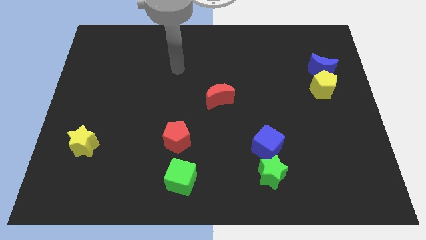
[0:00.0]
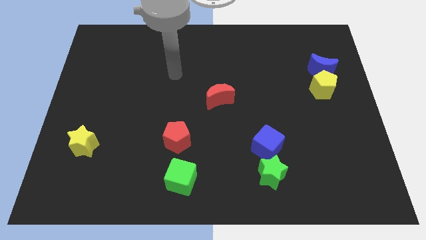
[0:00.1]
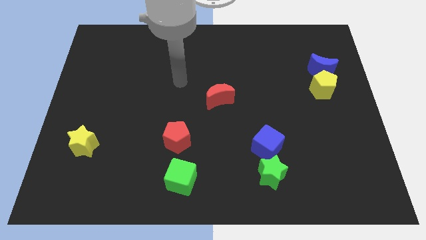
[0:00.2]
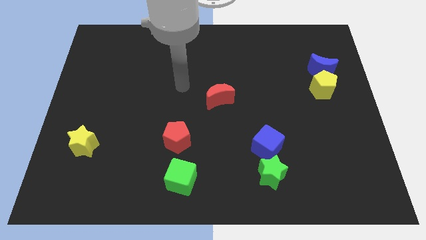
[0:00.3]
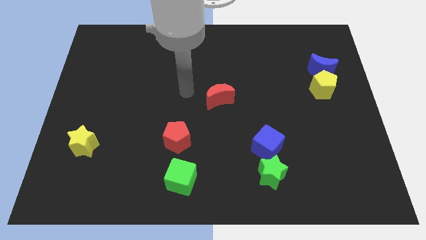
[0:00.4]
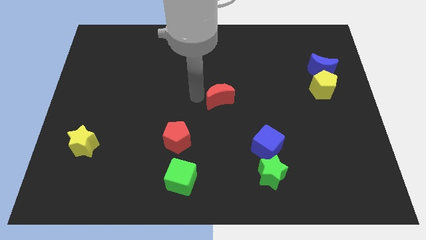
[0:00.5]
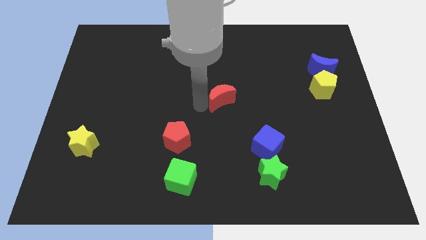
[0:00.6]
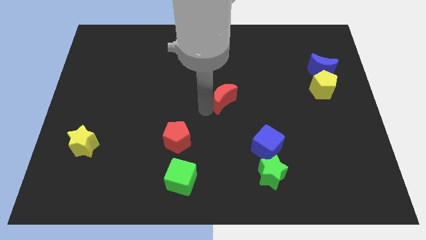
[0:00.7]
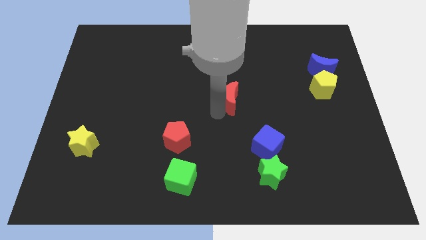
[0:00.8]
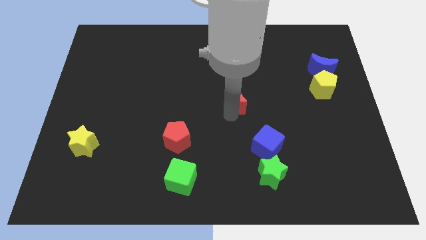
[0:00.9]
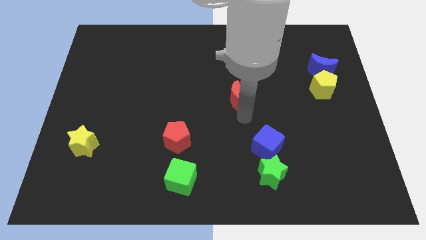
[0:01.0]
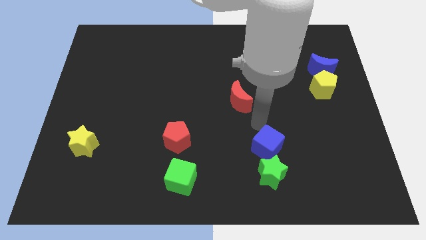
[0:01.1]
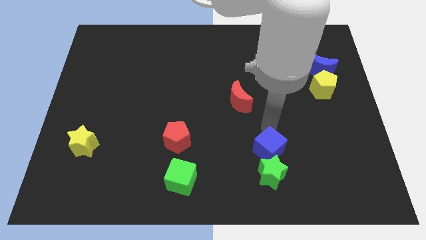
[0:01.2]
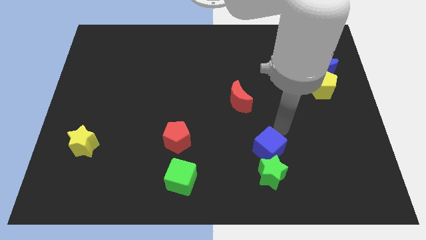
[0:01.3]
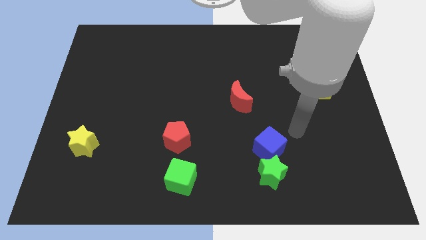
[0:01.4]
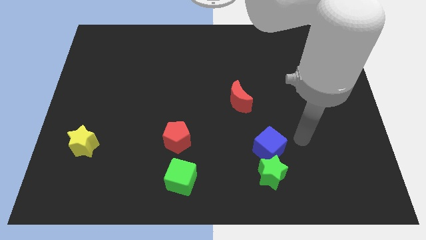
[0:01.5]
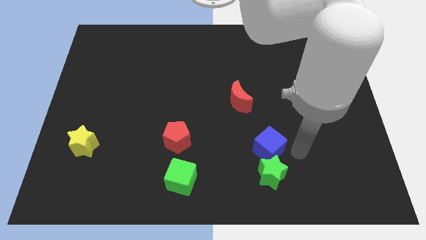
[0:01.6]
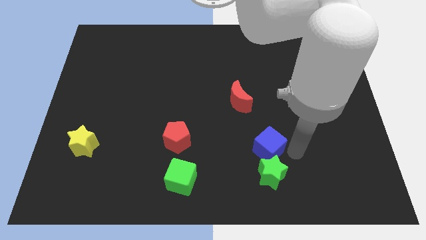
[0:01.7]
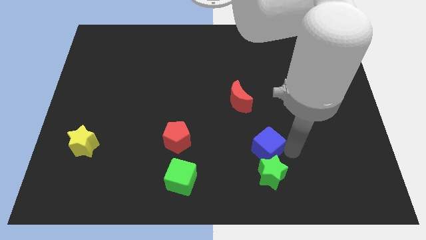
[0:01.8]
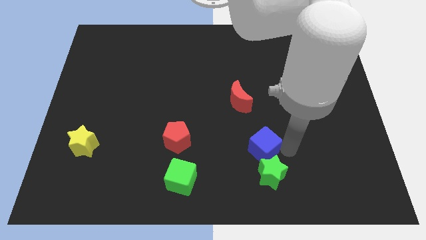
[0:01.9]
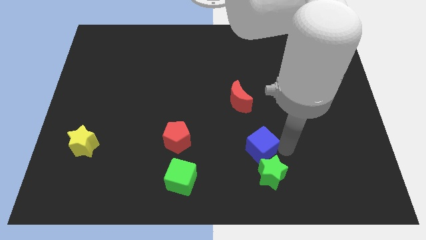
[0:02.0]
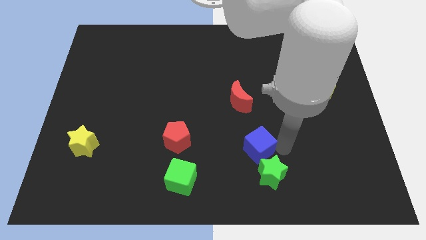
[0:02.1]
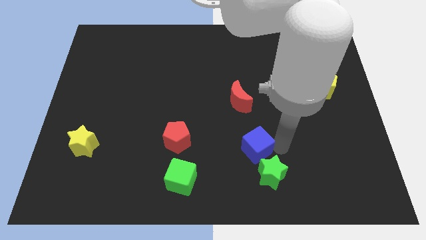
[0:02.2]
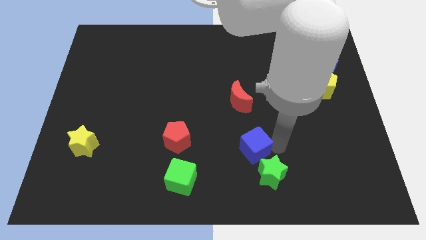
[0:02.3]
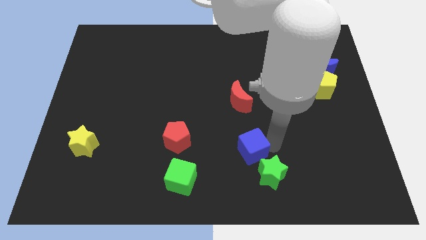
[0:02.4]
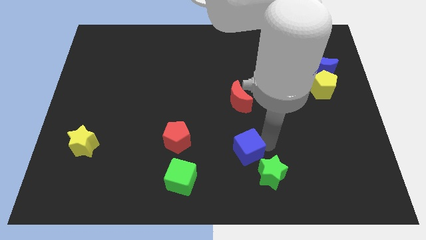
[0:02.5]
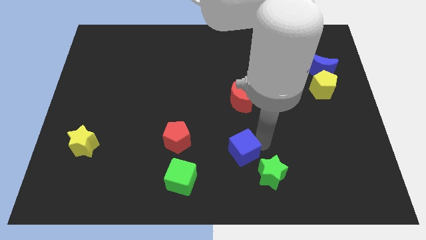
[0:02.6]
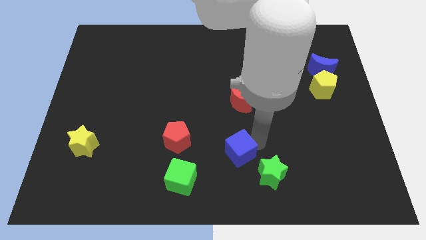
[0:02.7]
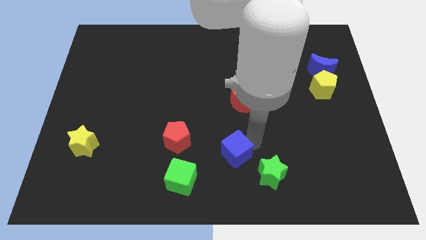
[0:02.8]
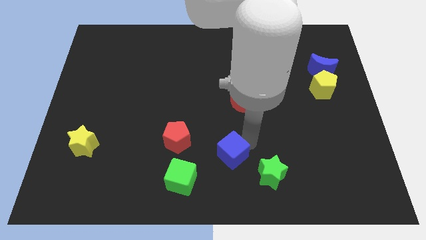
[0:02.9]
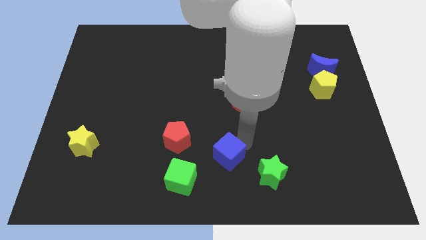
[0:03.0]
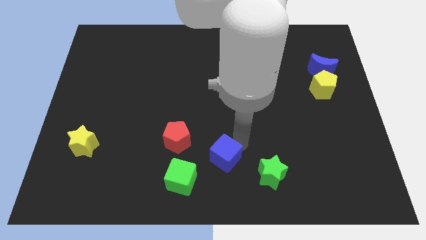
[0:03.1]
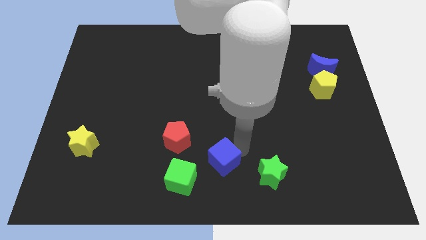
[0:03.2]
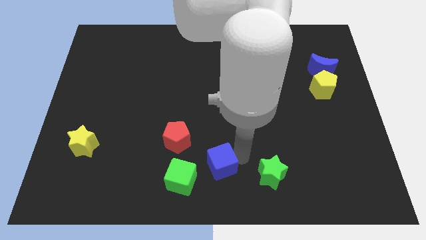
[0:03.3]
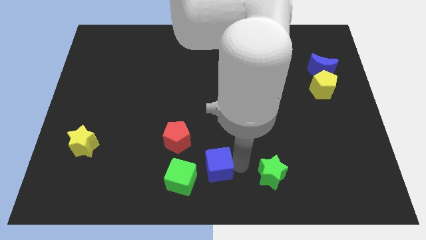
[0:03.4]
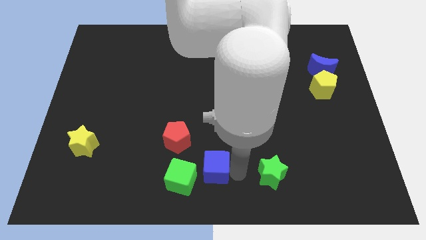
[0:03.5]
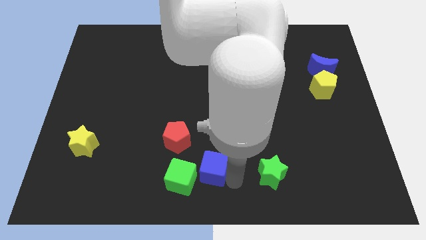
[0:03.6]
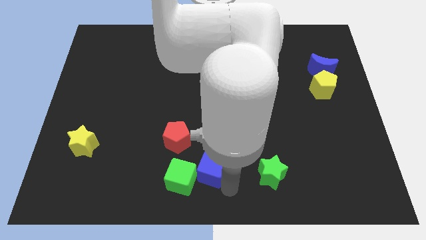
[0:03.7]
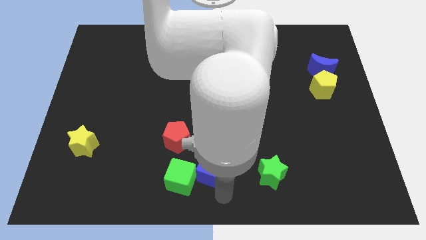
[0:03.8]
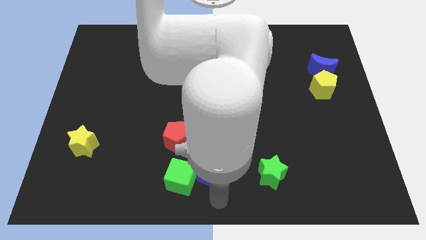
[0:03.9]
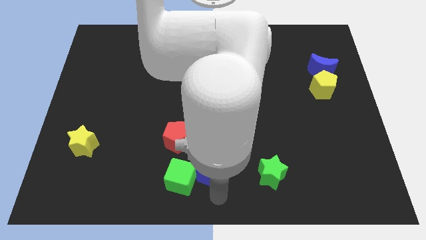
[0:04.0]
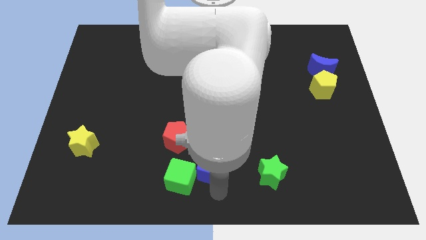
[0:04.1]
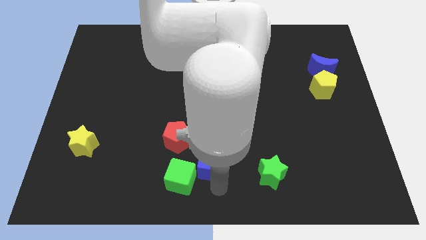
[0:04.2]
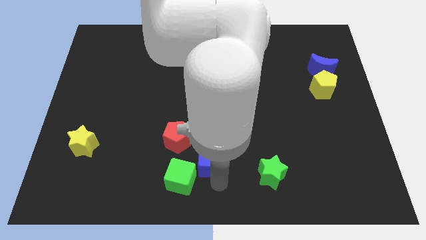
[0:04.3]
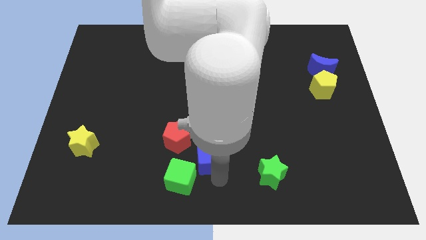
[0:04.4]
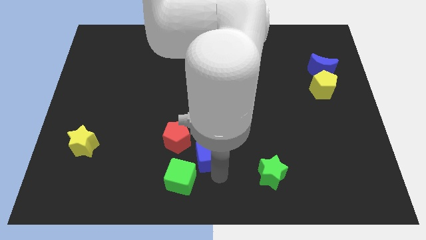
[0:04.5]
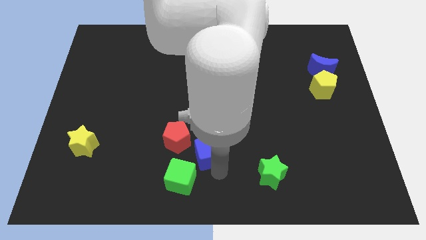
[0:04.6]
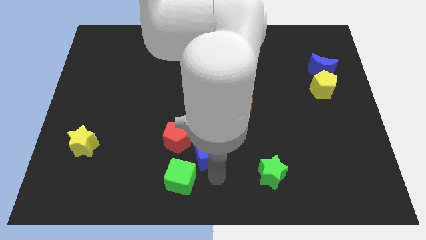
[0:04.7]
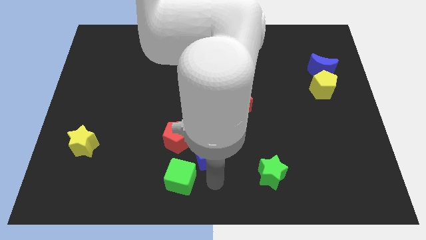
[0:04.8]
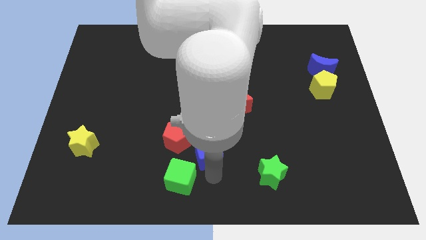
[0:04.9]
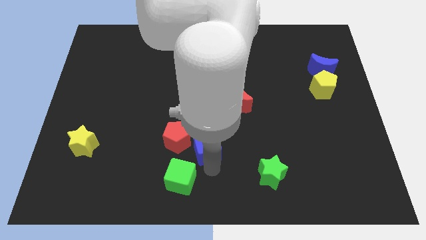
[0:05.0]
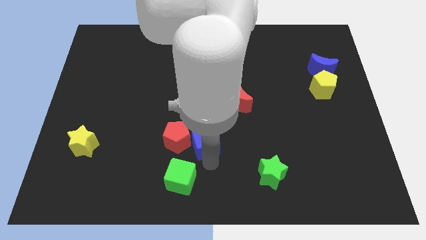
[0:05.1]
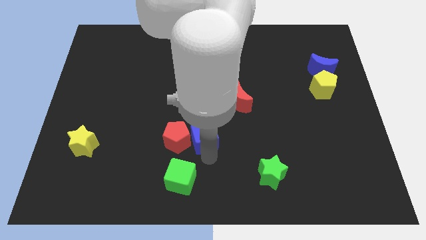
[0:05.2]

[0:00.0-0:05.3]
move the blue cube next to the red pentagon

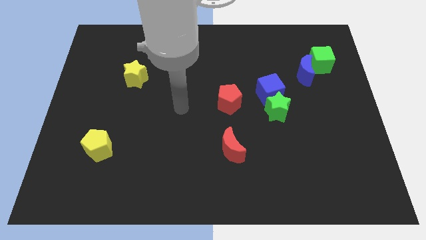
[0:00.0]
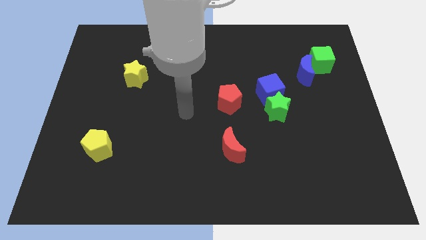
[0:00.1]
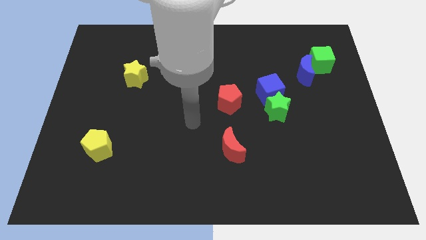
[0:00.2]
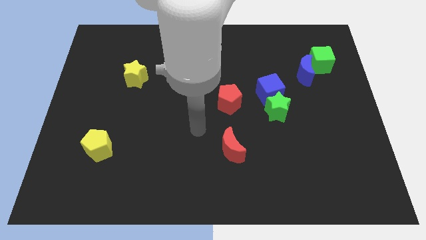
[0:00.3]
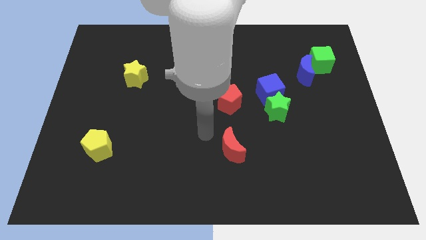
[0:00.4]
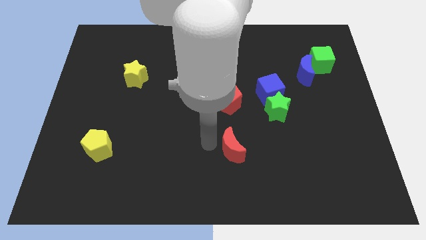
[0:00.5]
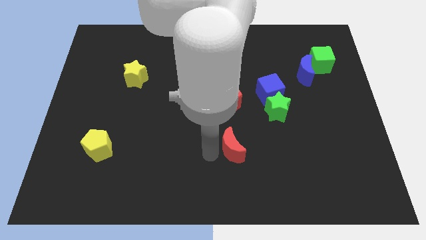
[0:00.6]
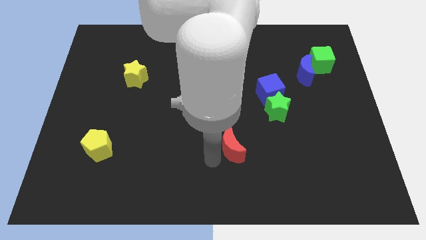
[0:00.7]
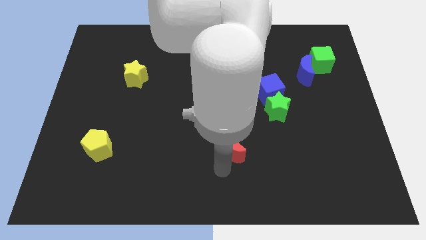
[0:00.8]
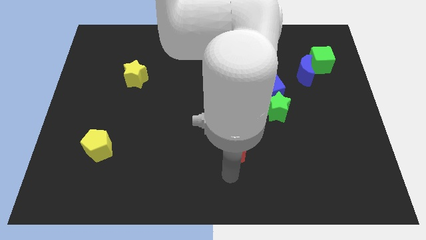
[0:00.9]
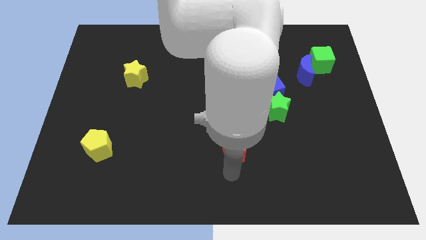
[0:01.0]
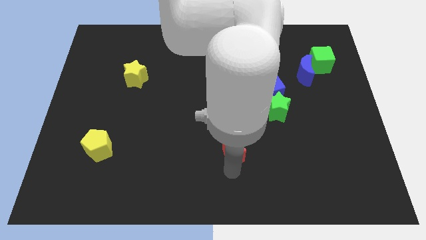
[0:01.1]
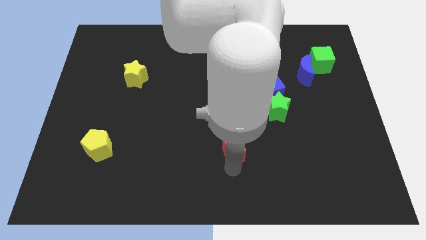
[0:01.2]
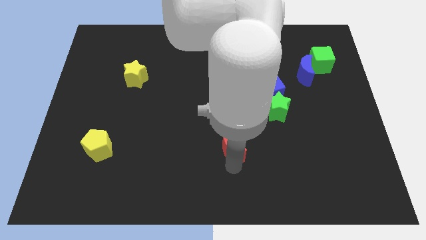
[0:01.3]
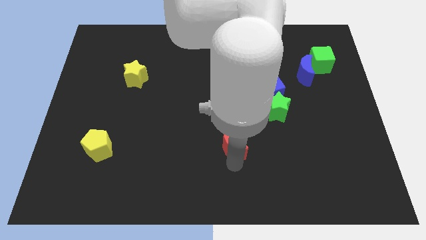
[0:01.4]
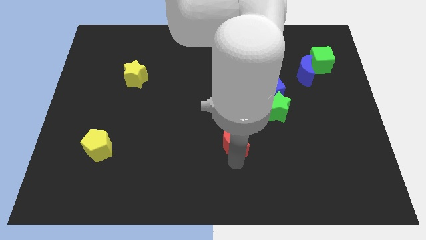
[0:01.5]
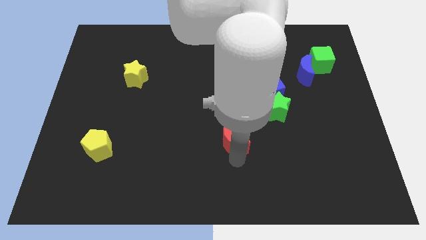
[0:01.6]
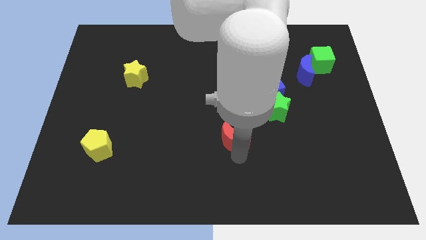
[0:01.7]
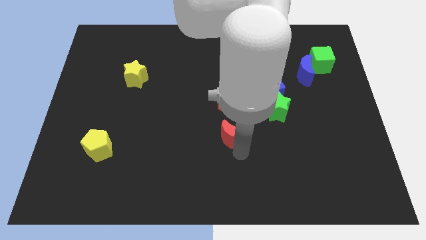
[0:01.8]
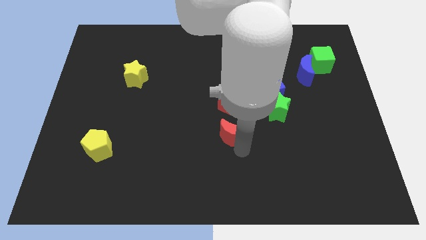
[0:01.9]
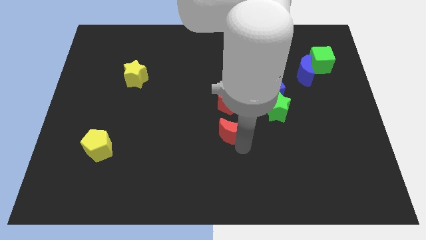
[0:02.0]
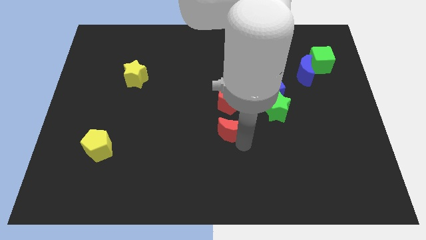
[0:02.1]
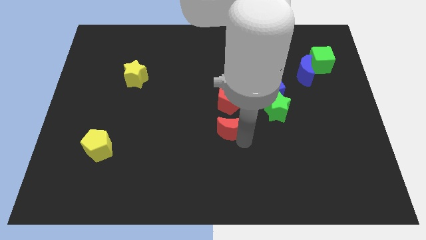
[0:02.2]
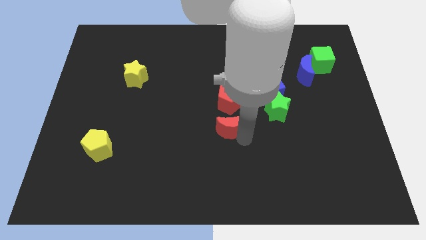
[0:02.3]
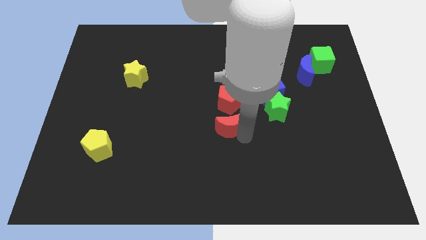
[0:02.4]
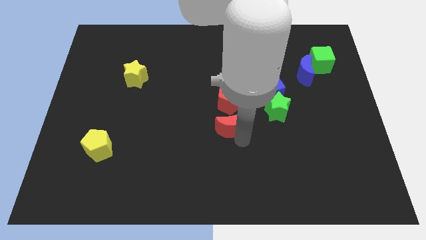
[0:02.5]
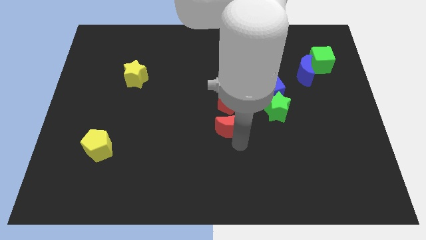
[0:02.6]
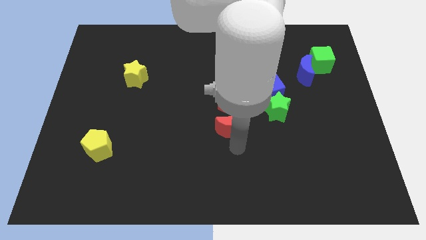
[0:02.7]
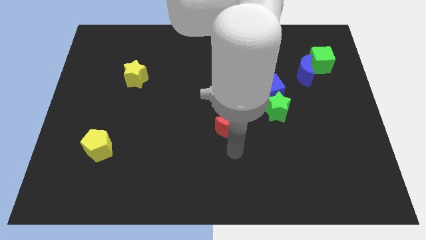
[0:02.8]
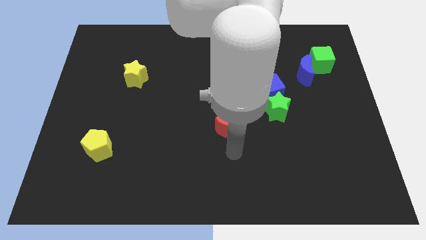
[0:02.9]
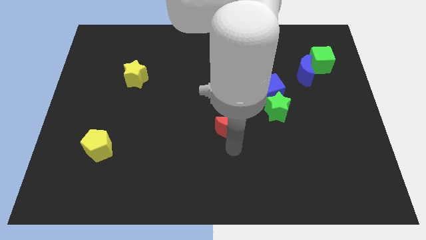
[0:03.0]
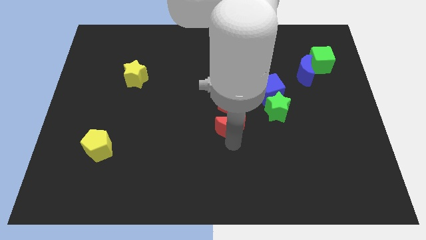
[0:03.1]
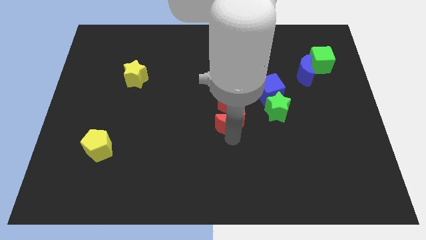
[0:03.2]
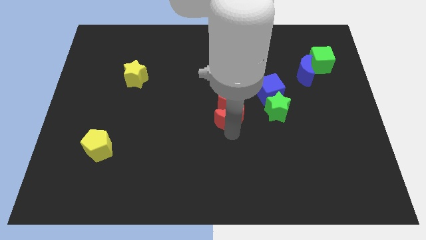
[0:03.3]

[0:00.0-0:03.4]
move the red moon to the red pentagon
